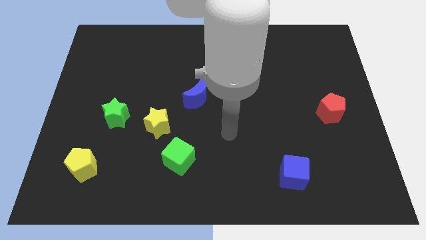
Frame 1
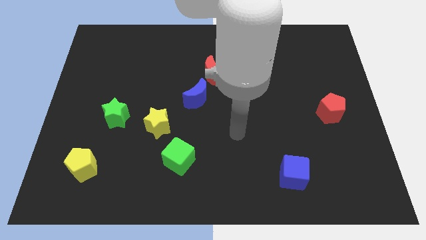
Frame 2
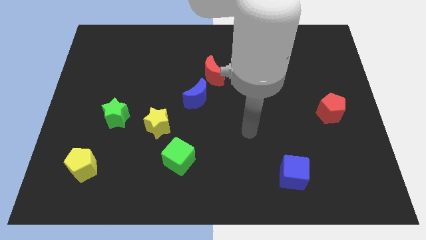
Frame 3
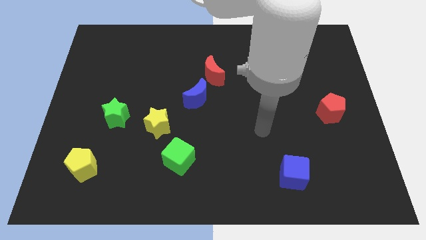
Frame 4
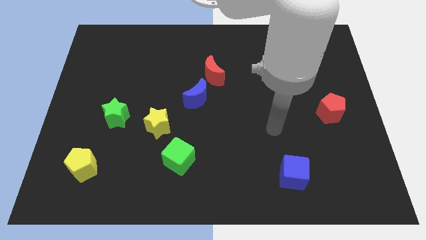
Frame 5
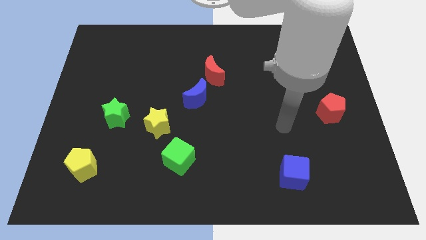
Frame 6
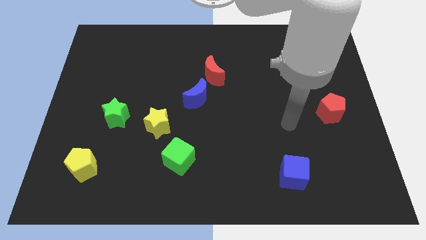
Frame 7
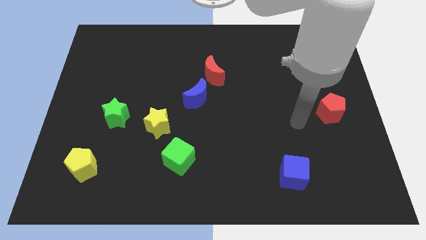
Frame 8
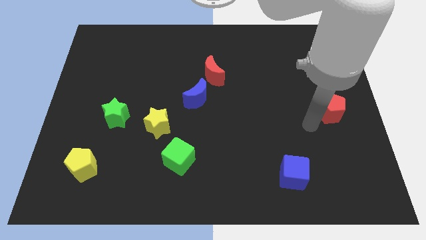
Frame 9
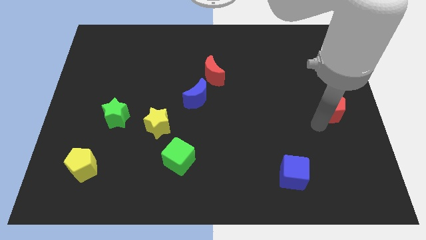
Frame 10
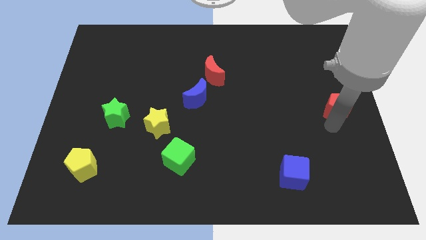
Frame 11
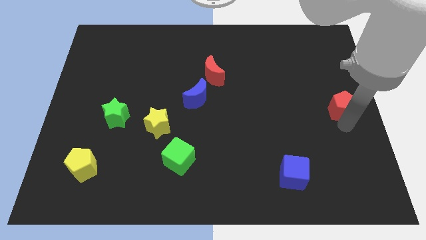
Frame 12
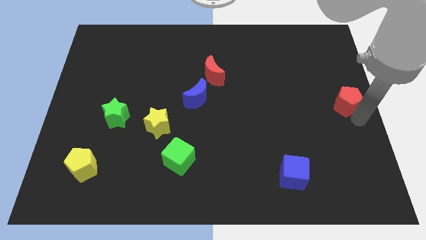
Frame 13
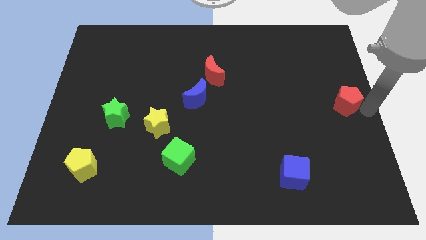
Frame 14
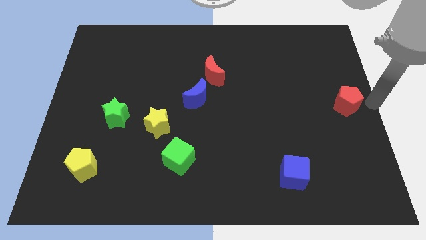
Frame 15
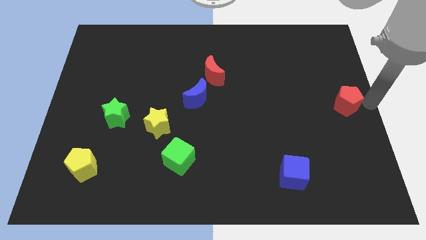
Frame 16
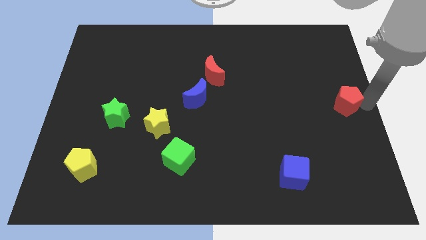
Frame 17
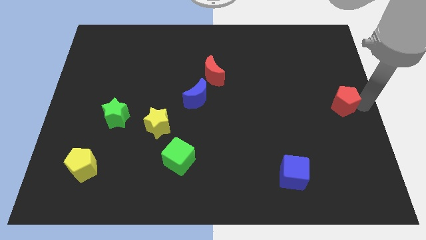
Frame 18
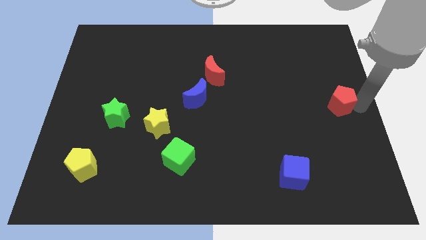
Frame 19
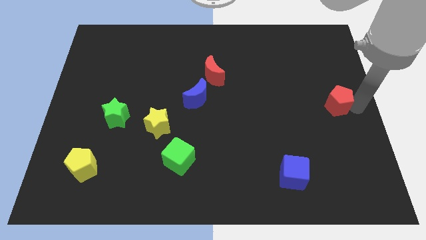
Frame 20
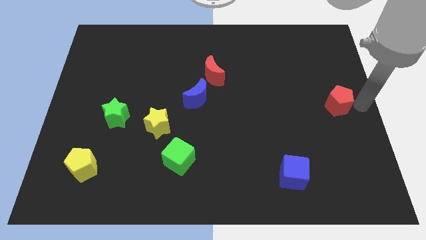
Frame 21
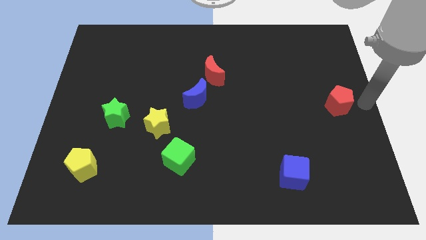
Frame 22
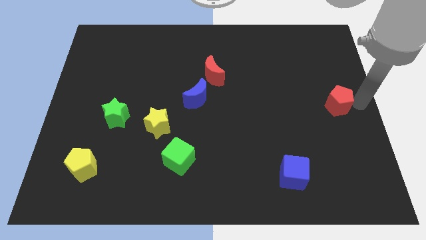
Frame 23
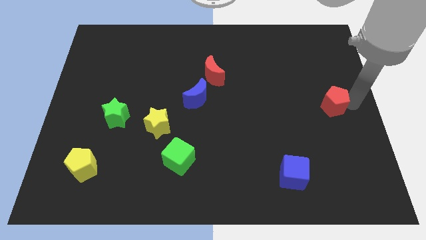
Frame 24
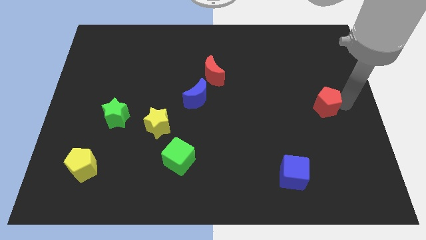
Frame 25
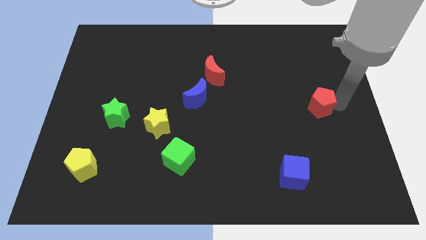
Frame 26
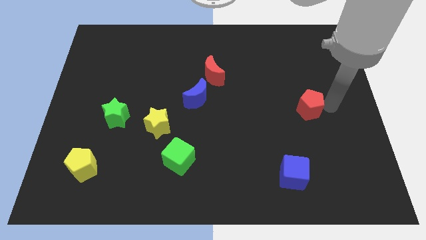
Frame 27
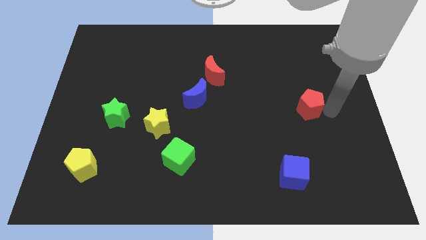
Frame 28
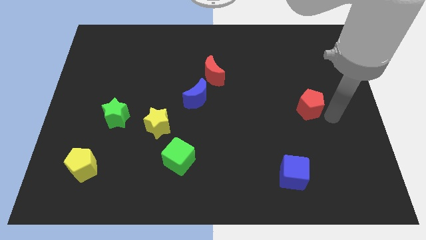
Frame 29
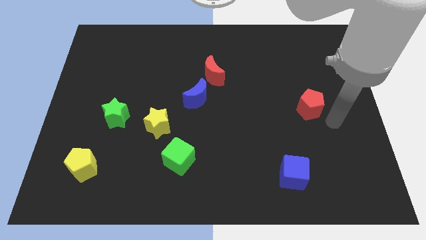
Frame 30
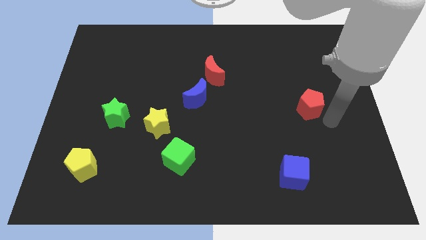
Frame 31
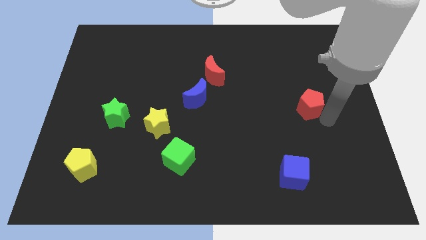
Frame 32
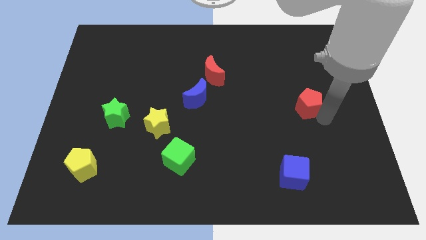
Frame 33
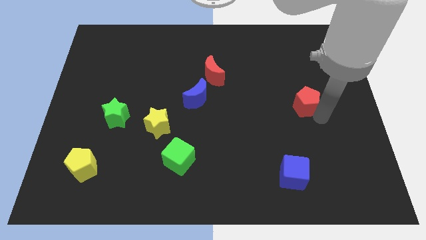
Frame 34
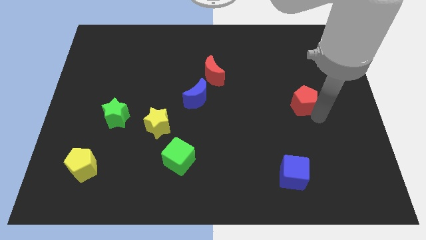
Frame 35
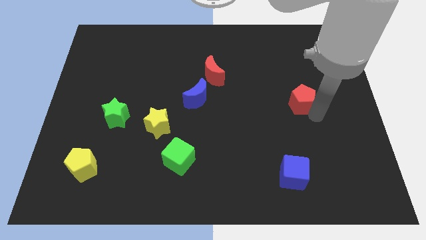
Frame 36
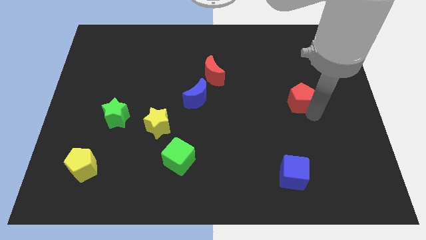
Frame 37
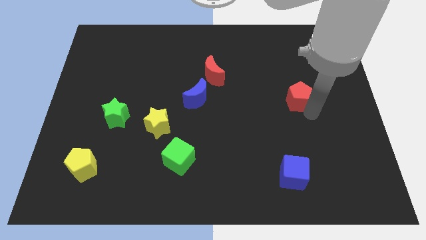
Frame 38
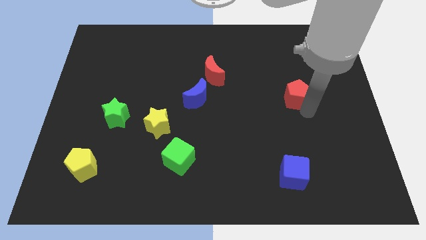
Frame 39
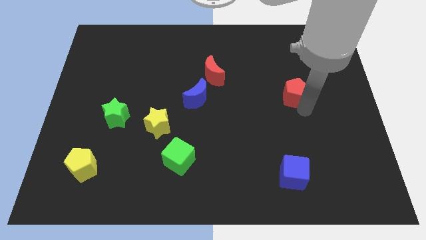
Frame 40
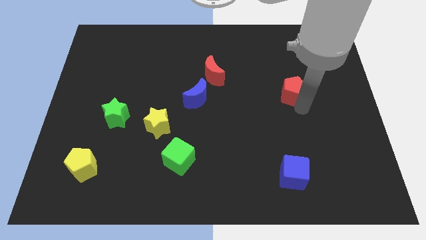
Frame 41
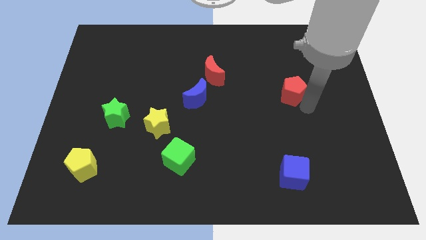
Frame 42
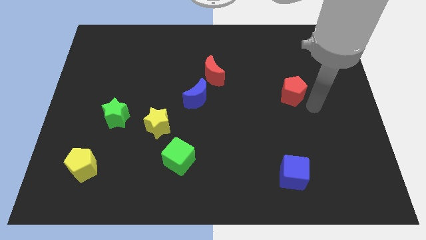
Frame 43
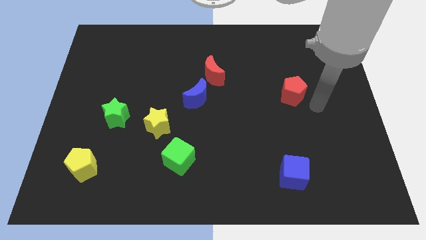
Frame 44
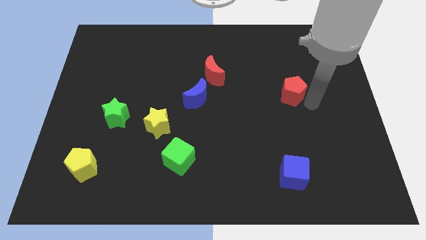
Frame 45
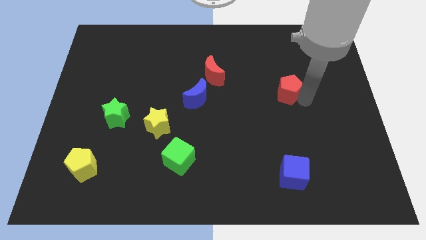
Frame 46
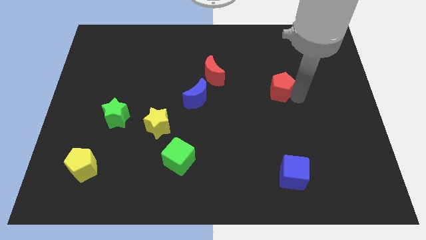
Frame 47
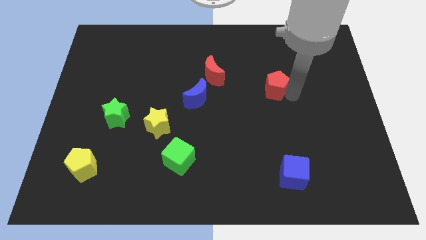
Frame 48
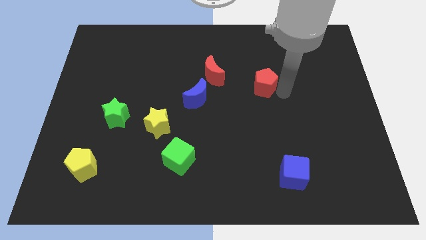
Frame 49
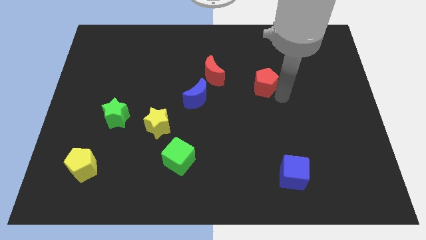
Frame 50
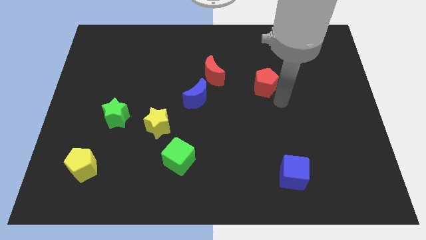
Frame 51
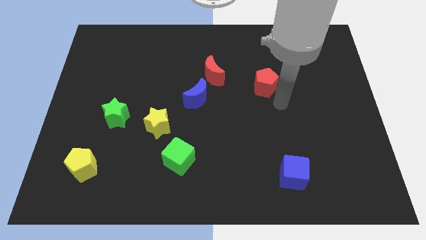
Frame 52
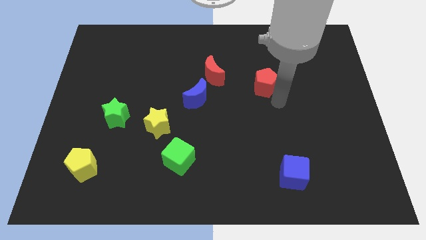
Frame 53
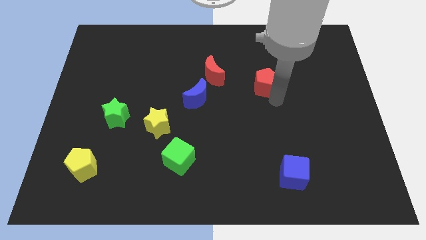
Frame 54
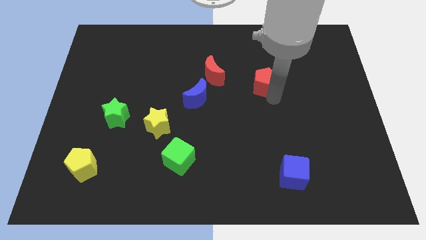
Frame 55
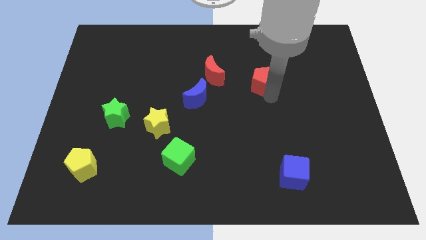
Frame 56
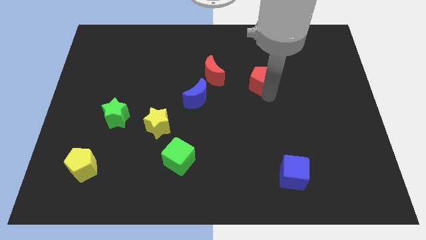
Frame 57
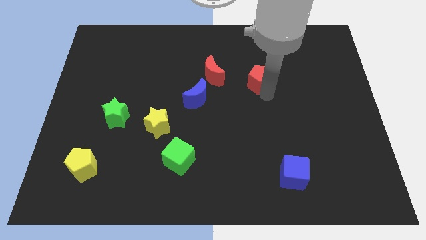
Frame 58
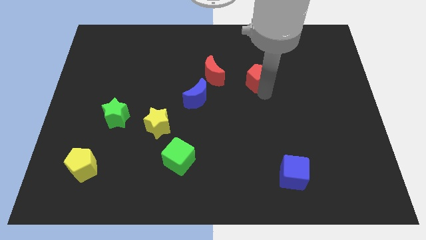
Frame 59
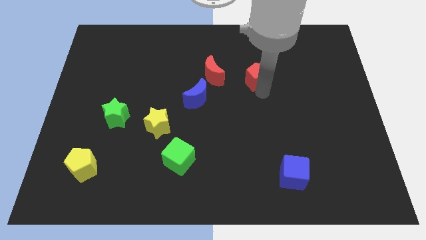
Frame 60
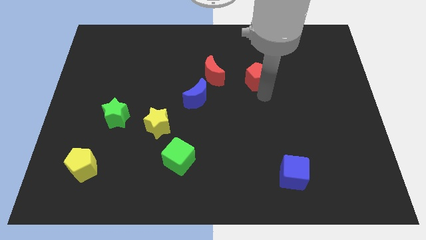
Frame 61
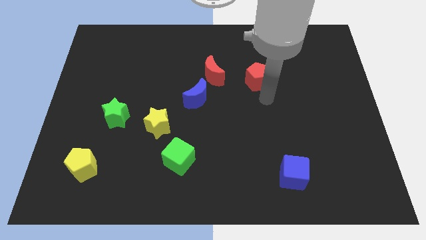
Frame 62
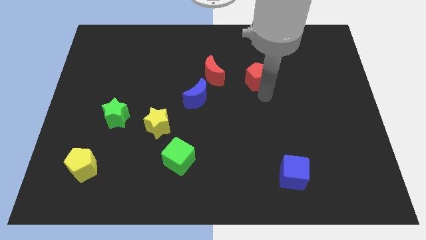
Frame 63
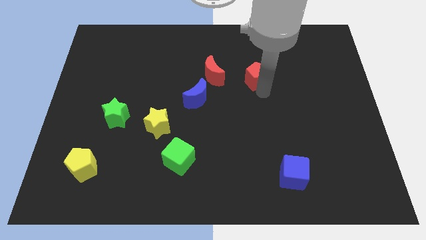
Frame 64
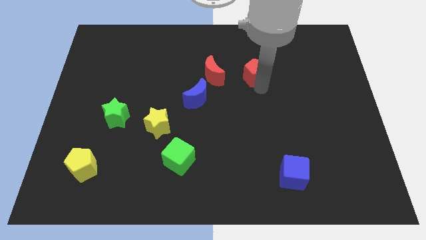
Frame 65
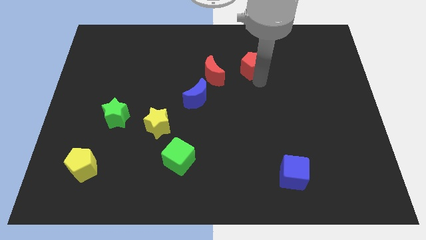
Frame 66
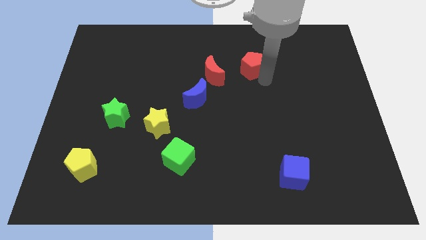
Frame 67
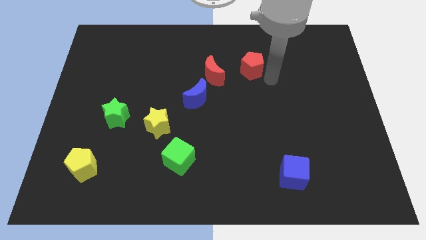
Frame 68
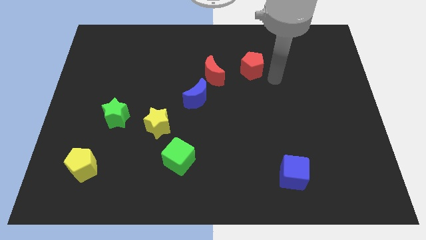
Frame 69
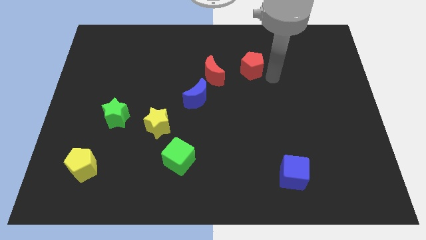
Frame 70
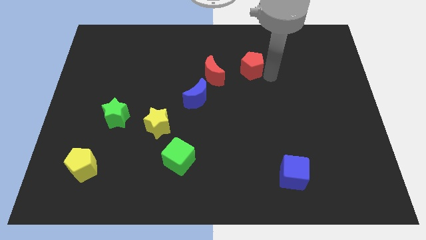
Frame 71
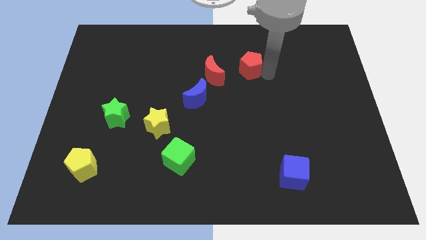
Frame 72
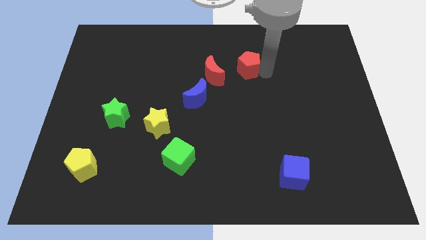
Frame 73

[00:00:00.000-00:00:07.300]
move the red pentagon to the top right of the red moon
